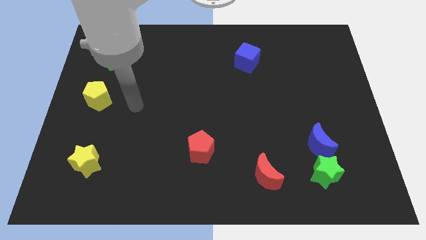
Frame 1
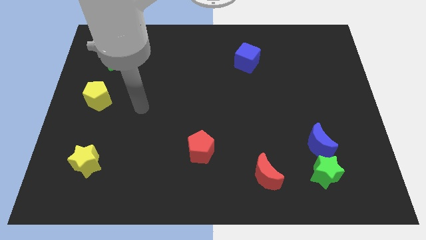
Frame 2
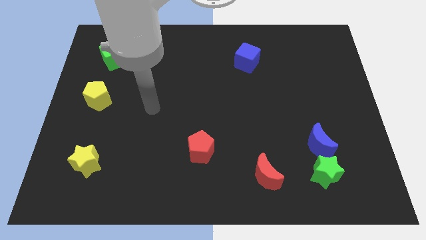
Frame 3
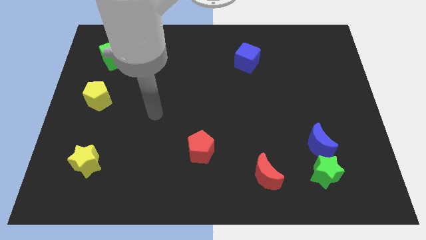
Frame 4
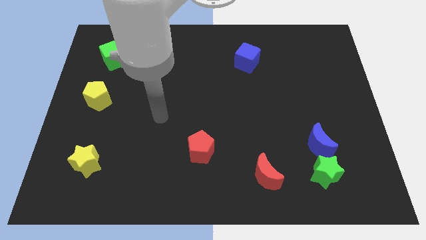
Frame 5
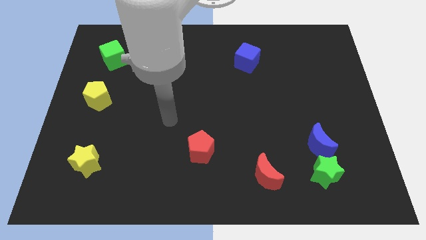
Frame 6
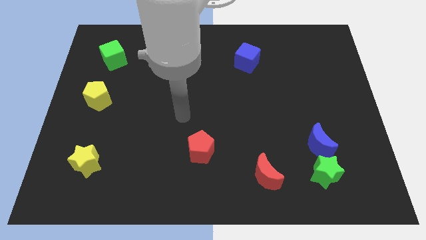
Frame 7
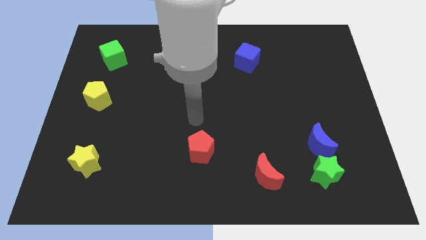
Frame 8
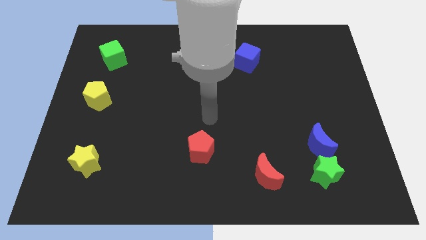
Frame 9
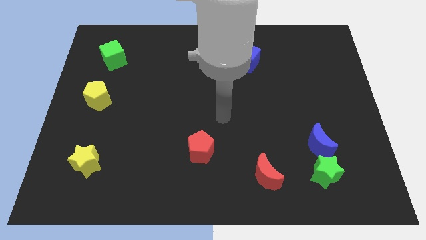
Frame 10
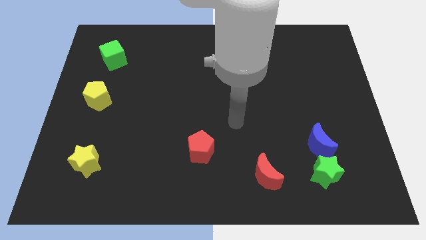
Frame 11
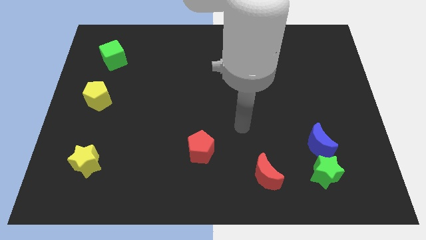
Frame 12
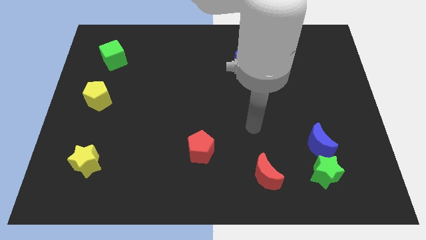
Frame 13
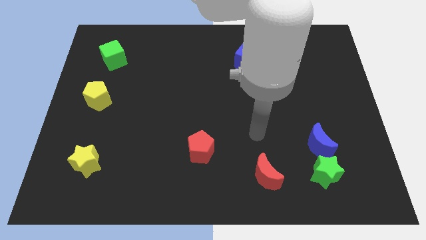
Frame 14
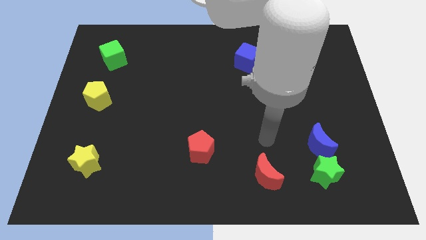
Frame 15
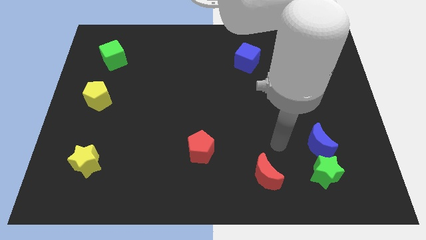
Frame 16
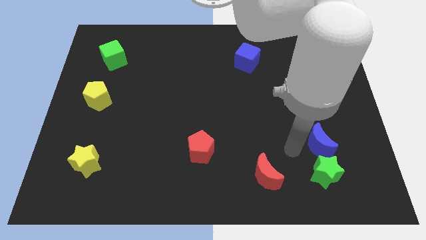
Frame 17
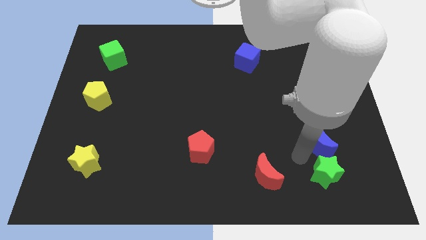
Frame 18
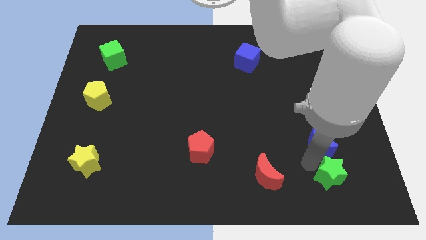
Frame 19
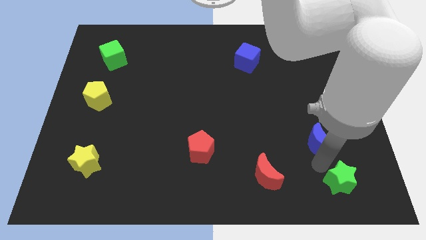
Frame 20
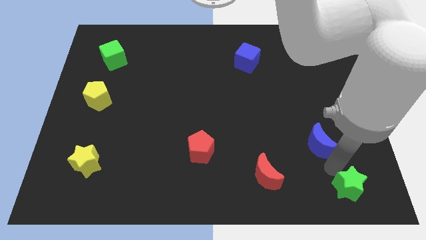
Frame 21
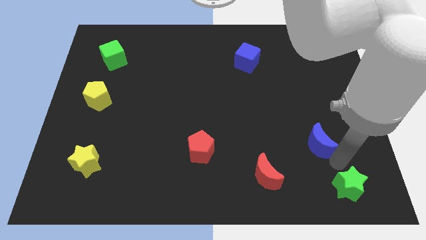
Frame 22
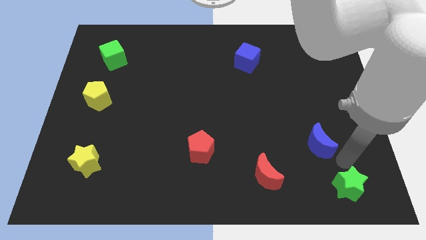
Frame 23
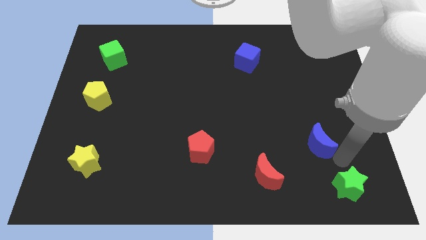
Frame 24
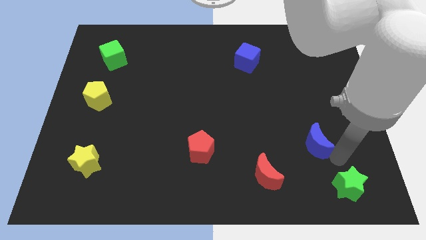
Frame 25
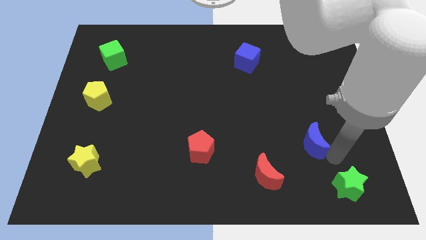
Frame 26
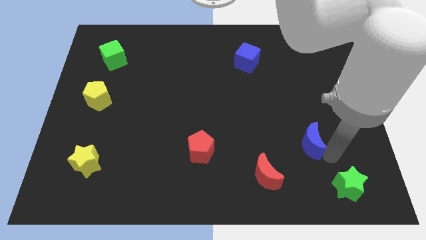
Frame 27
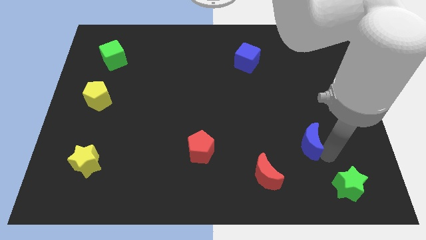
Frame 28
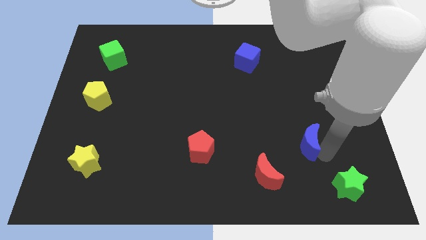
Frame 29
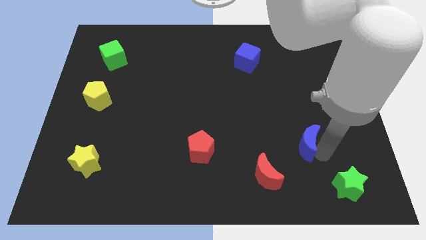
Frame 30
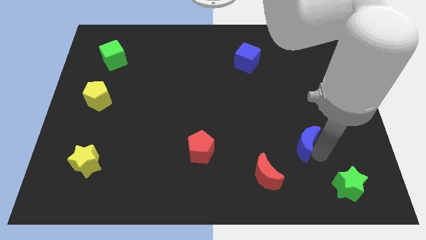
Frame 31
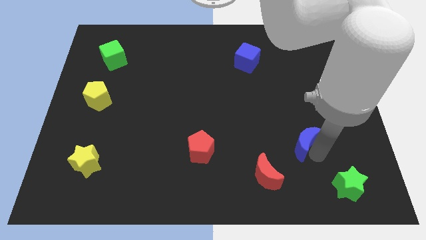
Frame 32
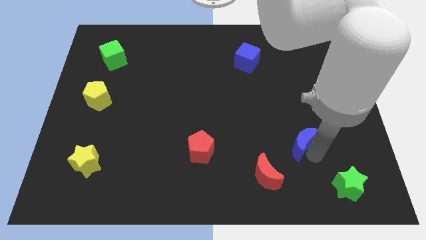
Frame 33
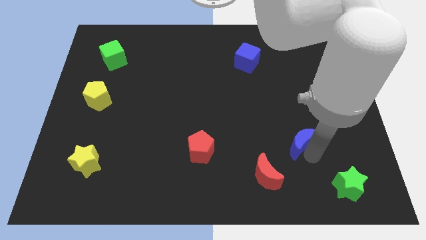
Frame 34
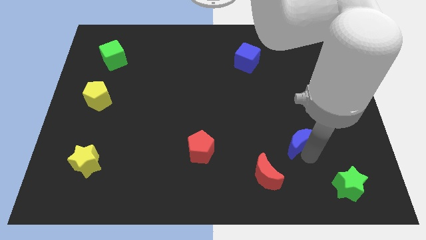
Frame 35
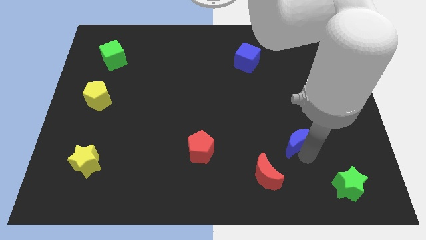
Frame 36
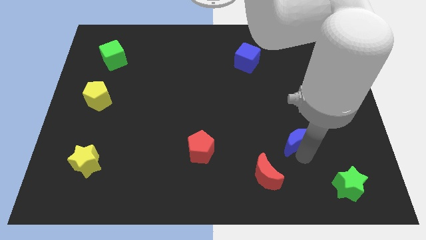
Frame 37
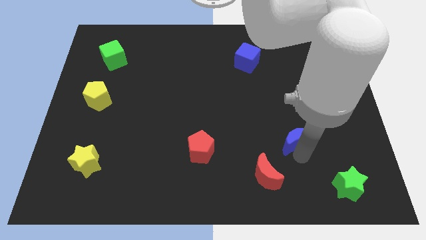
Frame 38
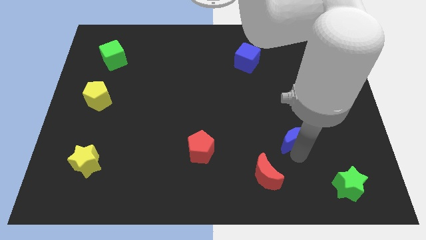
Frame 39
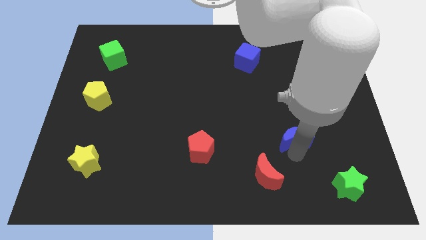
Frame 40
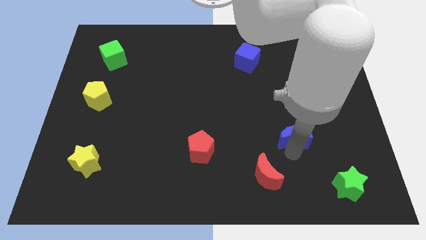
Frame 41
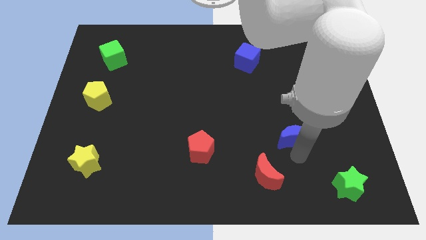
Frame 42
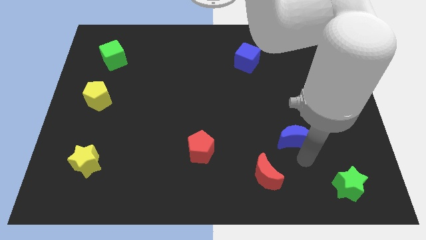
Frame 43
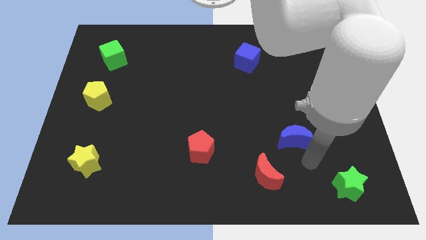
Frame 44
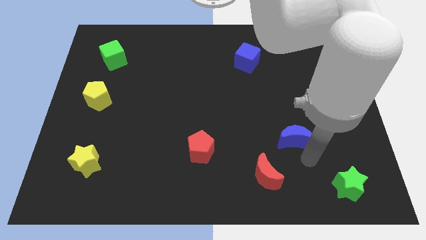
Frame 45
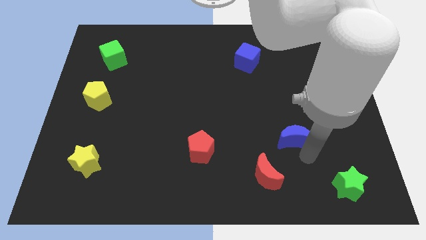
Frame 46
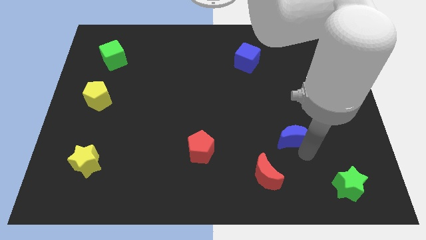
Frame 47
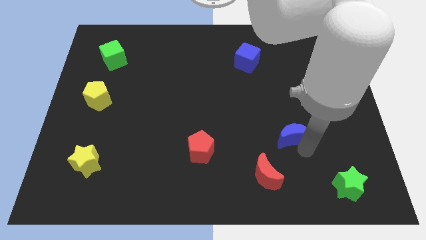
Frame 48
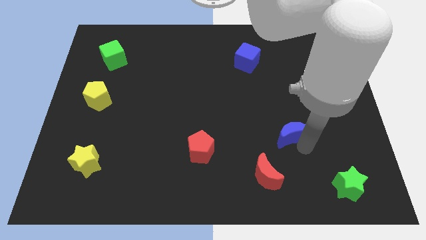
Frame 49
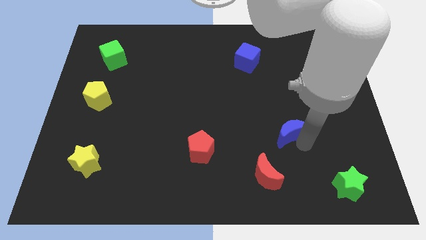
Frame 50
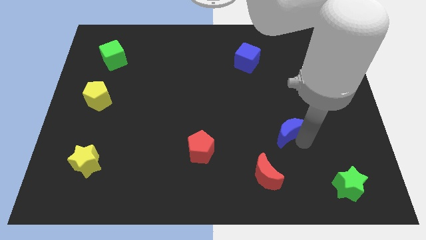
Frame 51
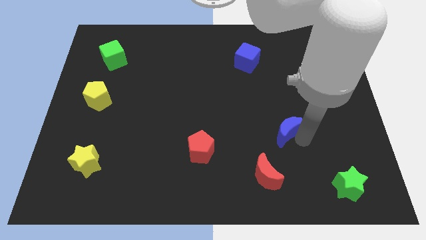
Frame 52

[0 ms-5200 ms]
slightly push the blue moon upwards and to the left diagonally

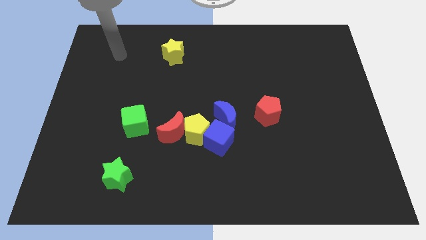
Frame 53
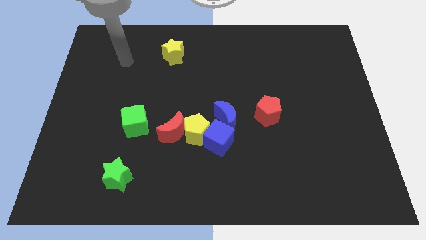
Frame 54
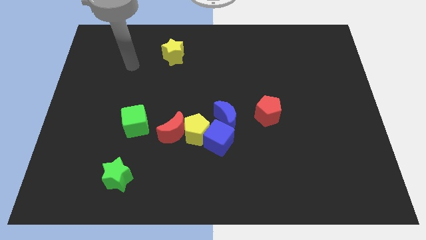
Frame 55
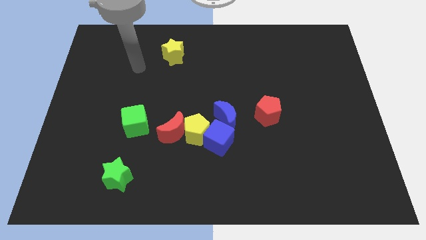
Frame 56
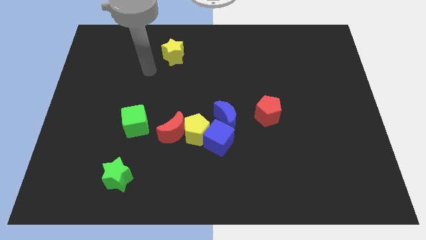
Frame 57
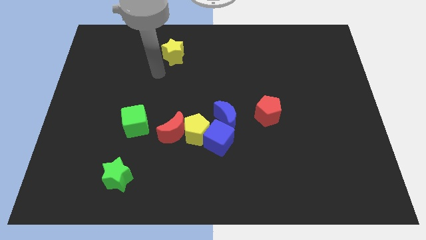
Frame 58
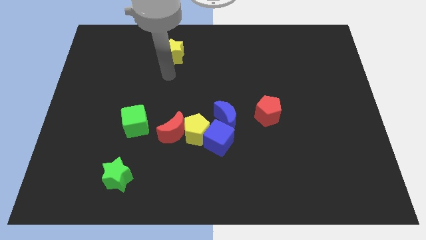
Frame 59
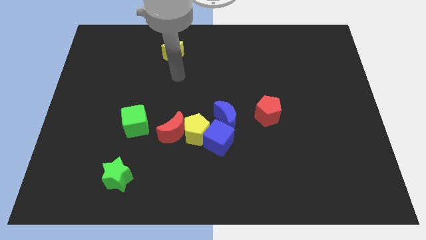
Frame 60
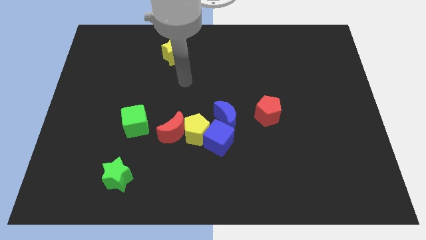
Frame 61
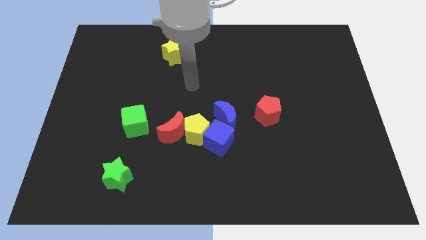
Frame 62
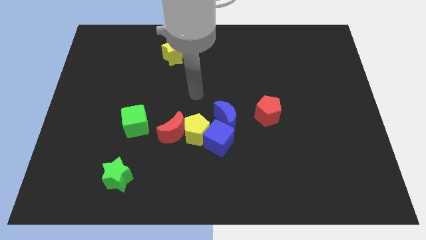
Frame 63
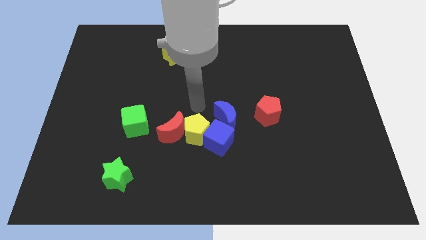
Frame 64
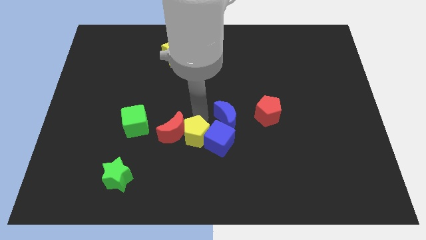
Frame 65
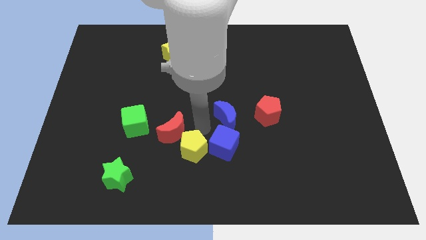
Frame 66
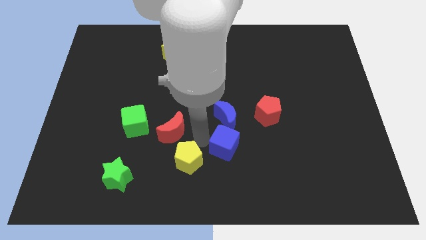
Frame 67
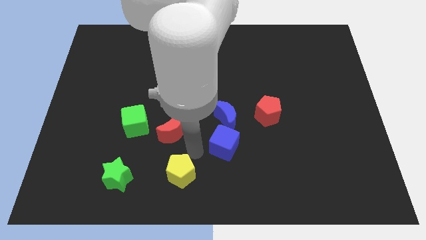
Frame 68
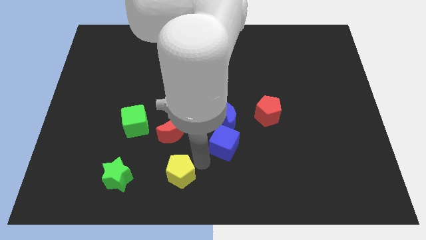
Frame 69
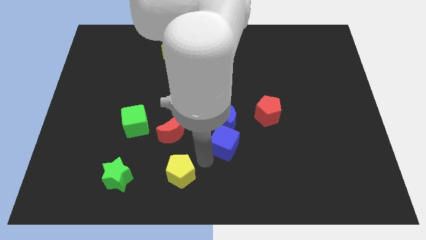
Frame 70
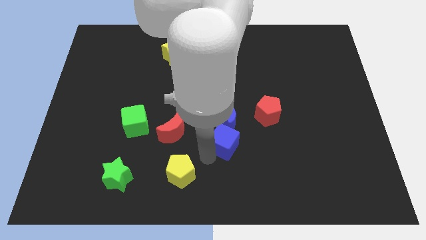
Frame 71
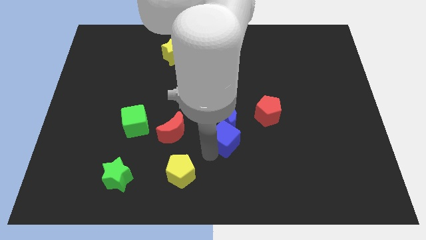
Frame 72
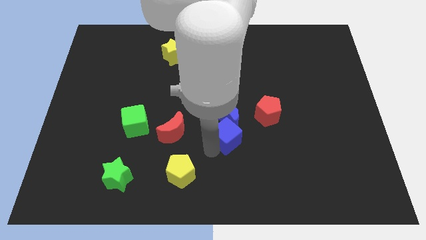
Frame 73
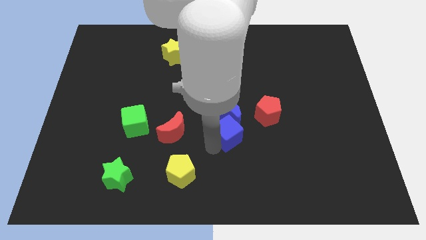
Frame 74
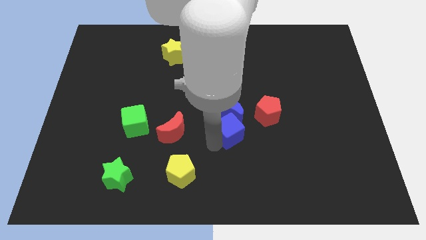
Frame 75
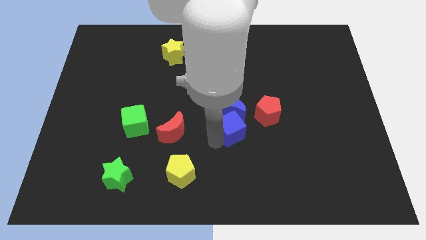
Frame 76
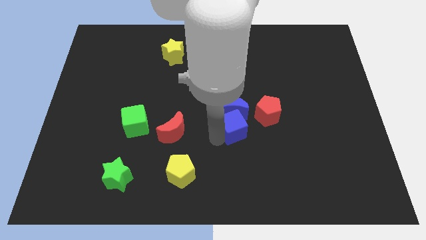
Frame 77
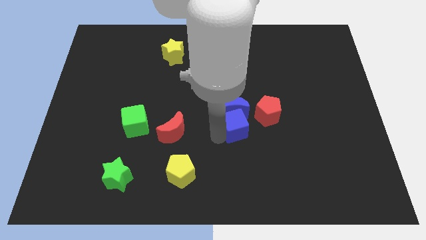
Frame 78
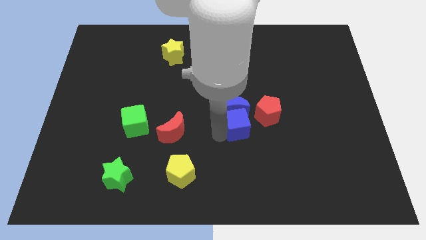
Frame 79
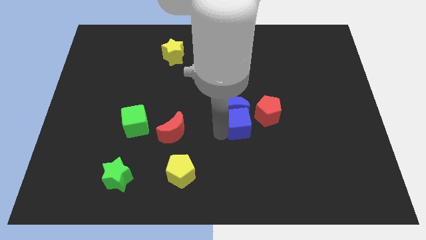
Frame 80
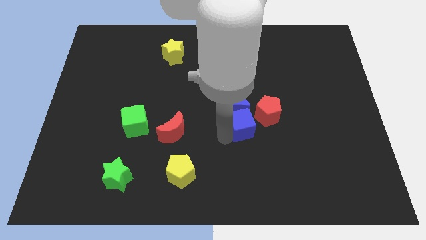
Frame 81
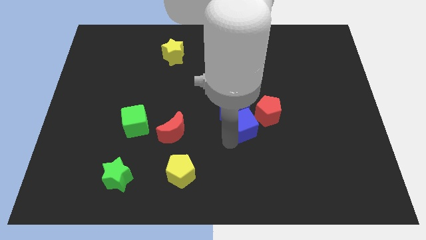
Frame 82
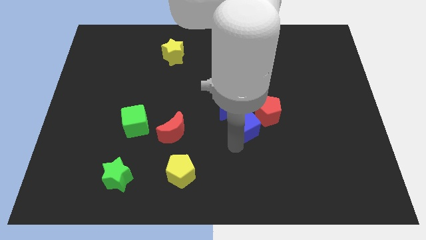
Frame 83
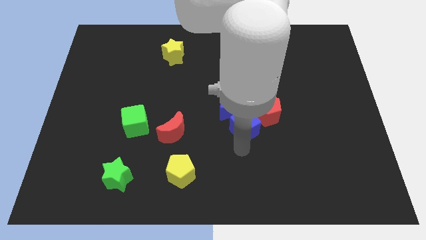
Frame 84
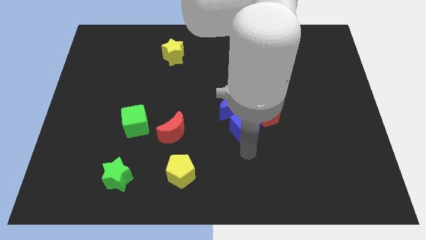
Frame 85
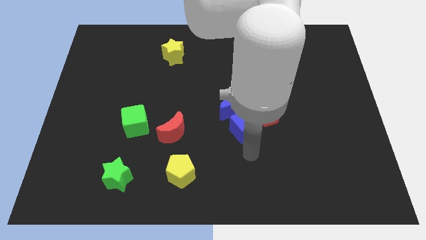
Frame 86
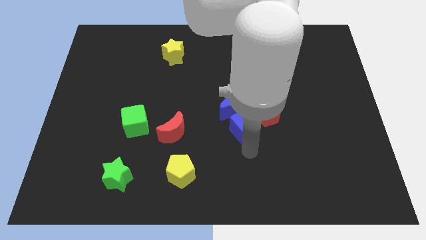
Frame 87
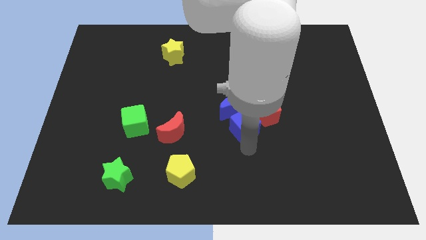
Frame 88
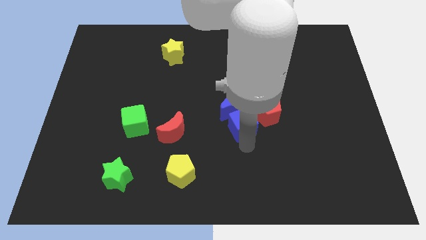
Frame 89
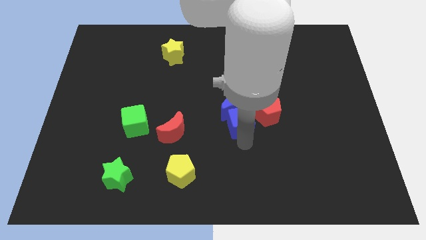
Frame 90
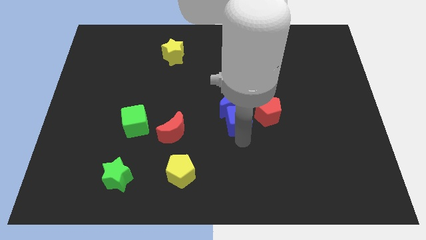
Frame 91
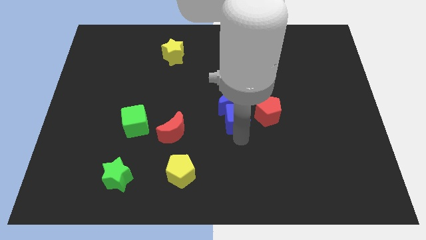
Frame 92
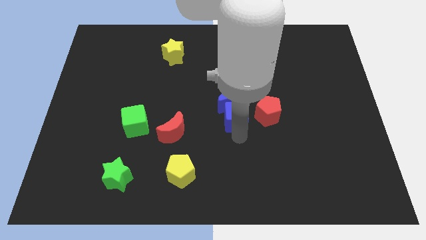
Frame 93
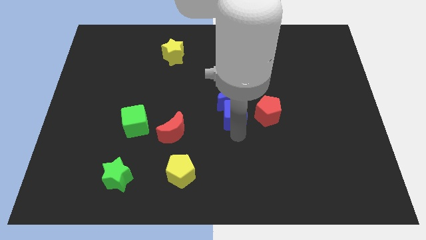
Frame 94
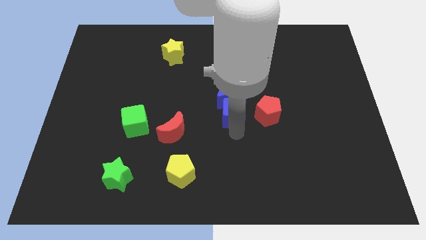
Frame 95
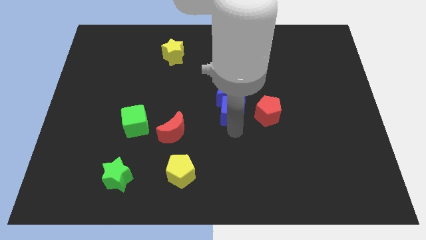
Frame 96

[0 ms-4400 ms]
push the blue cube a little upwards
